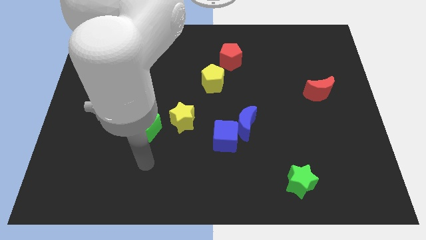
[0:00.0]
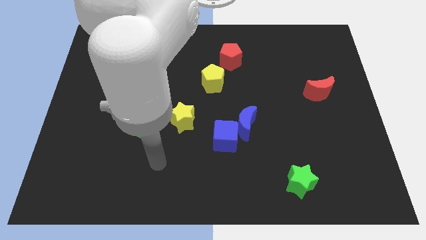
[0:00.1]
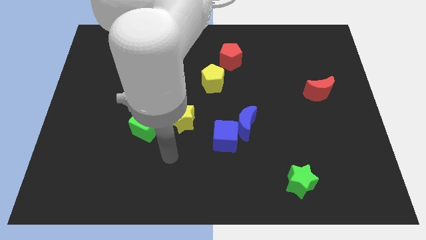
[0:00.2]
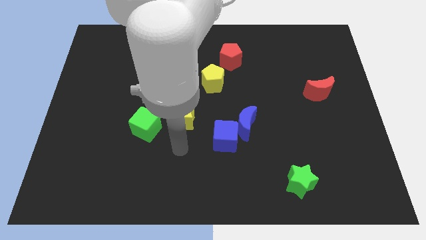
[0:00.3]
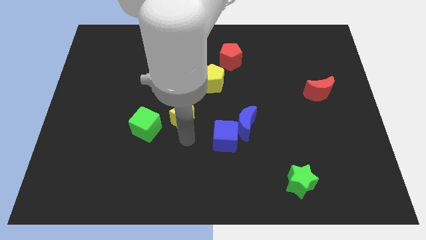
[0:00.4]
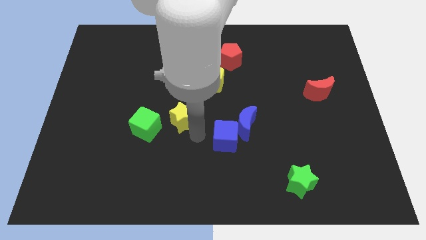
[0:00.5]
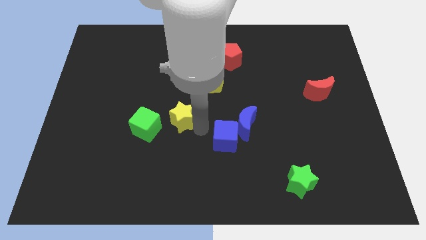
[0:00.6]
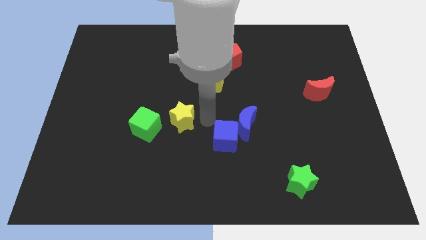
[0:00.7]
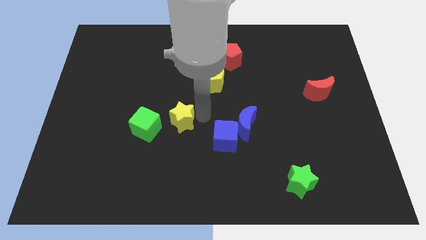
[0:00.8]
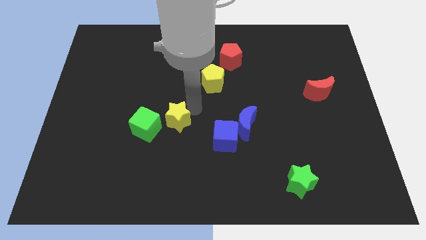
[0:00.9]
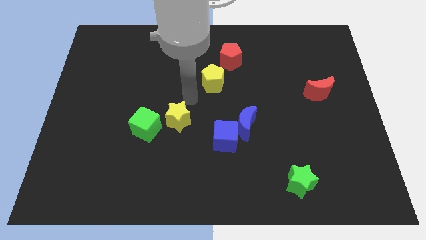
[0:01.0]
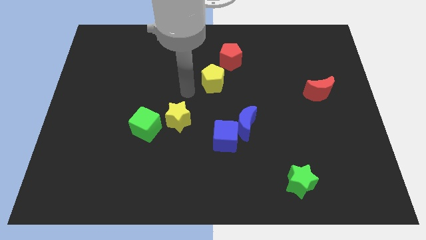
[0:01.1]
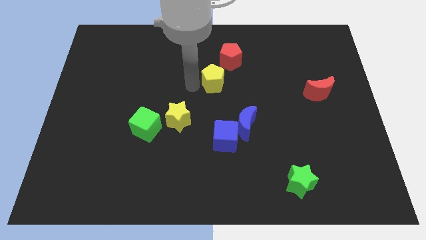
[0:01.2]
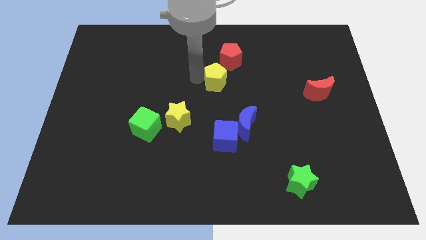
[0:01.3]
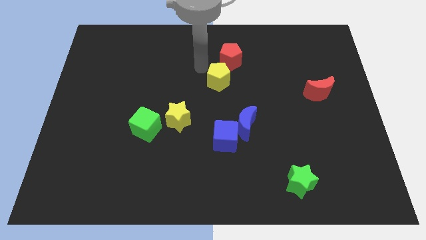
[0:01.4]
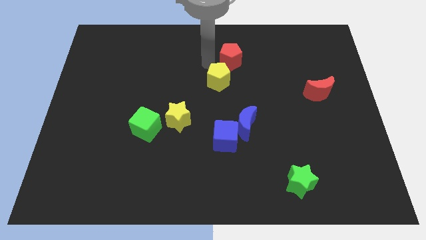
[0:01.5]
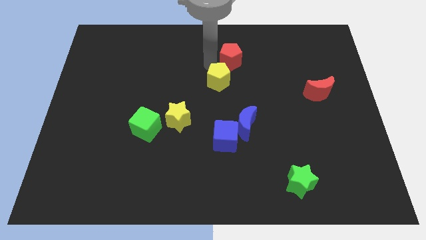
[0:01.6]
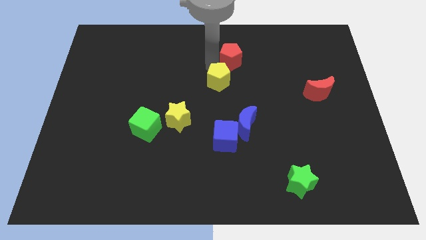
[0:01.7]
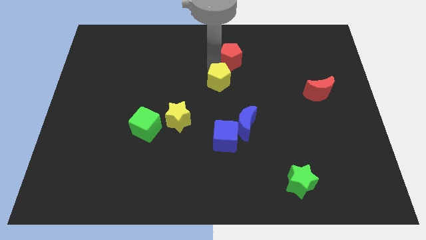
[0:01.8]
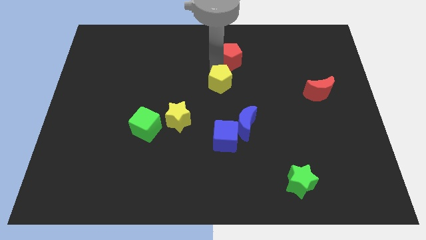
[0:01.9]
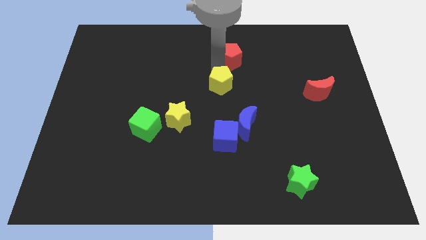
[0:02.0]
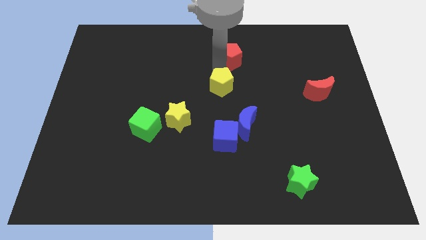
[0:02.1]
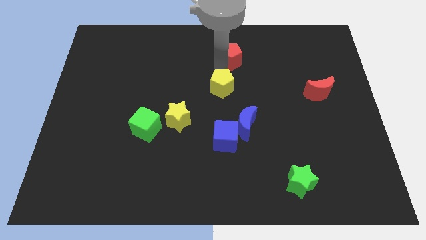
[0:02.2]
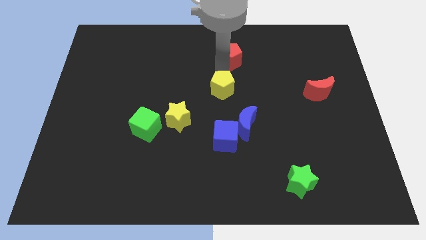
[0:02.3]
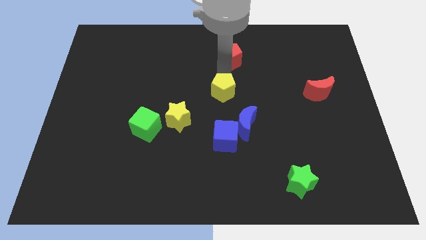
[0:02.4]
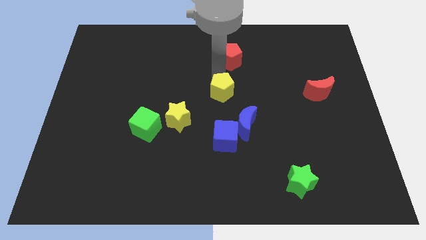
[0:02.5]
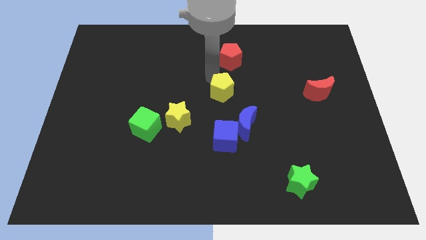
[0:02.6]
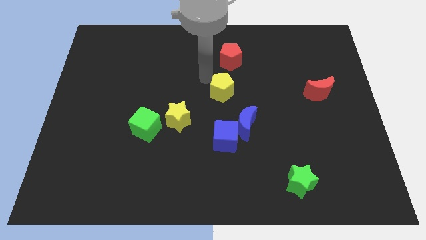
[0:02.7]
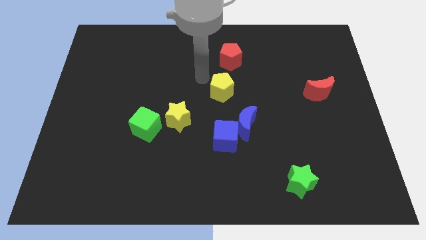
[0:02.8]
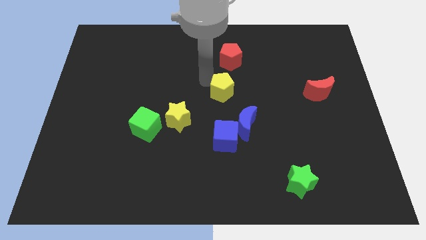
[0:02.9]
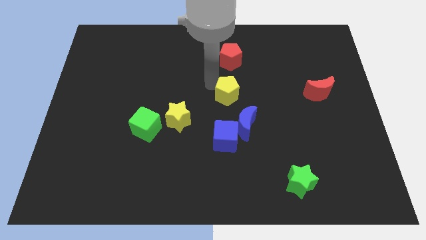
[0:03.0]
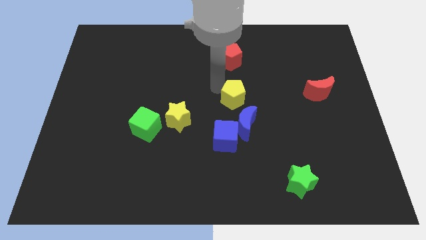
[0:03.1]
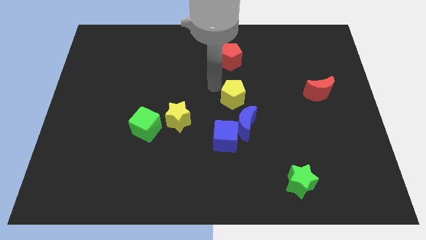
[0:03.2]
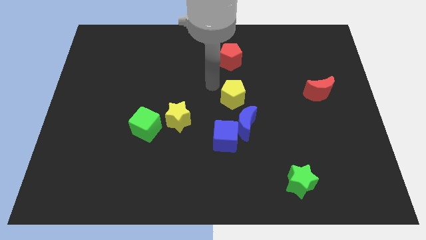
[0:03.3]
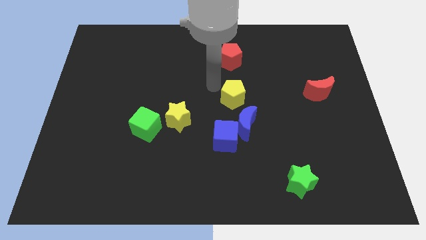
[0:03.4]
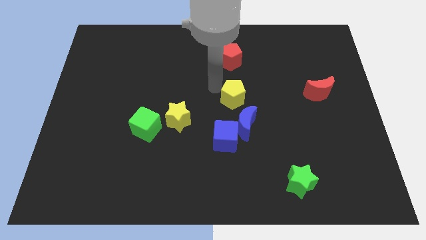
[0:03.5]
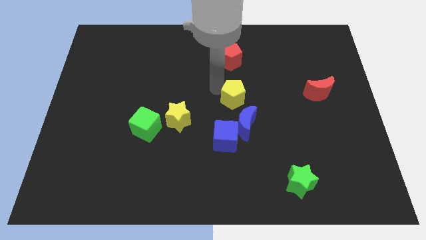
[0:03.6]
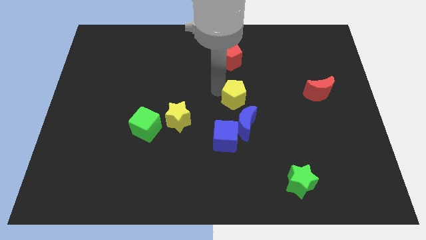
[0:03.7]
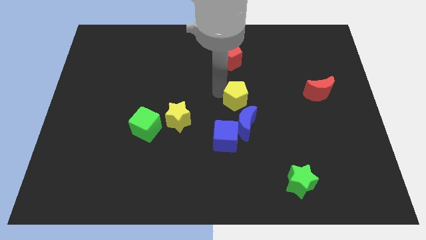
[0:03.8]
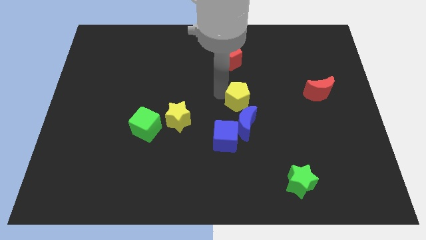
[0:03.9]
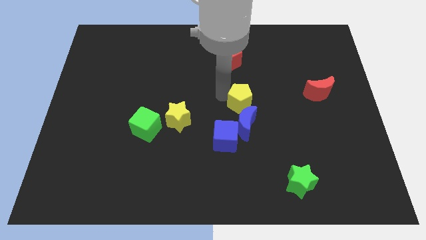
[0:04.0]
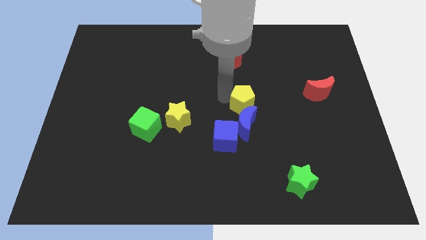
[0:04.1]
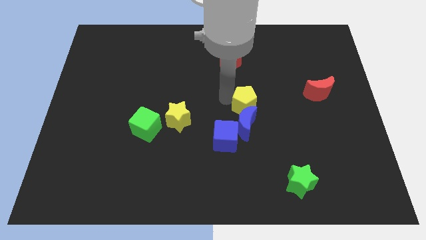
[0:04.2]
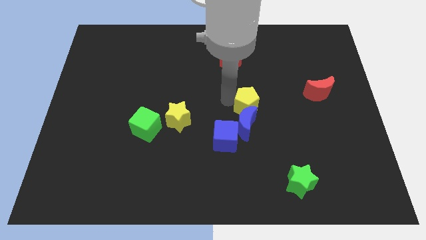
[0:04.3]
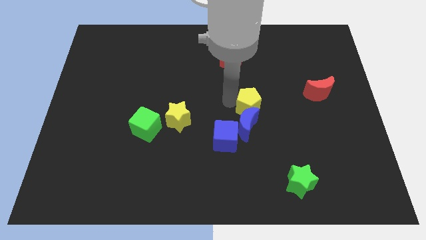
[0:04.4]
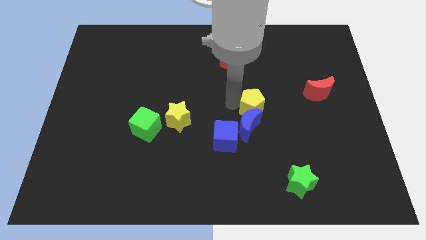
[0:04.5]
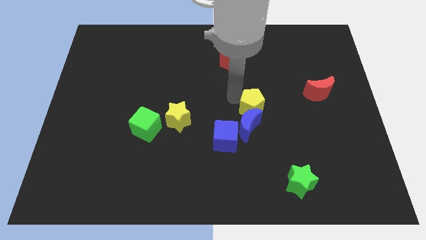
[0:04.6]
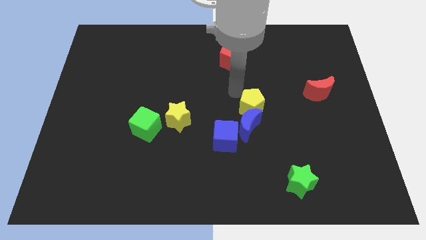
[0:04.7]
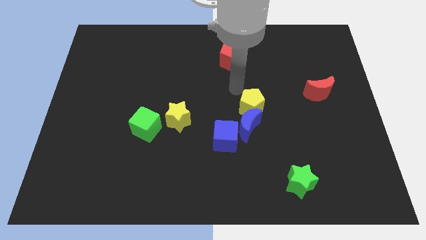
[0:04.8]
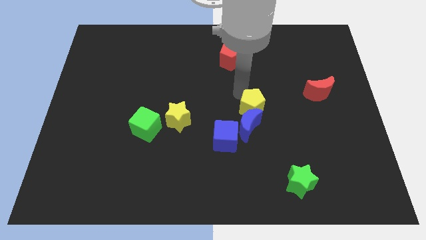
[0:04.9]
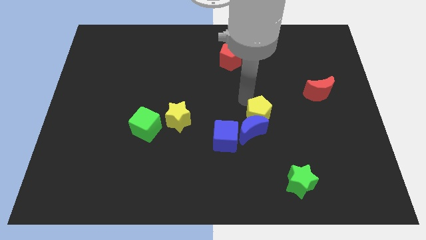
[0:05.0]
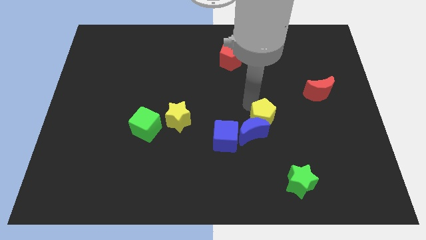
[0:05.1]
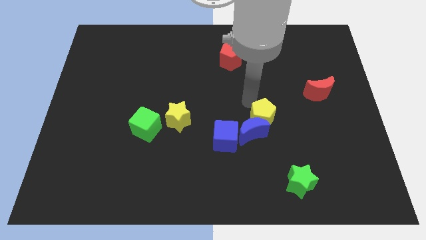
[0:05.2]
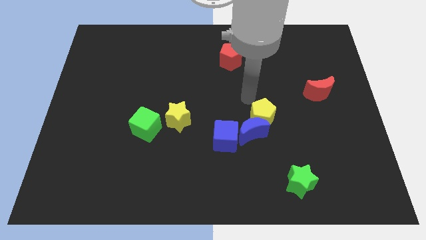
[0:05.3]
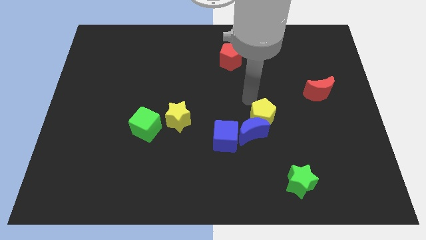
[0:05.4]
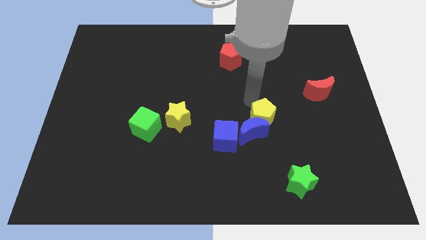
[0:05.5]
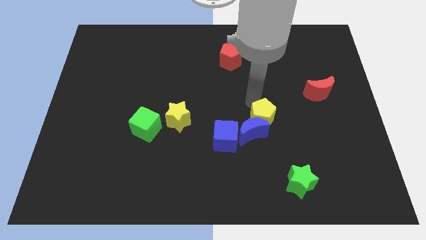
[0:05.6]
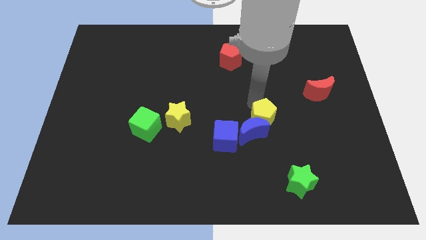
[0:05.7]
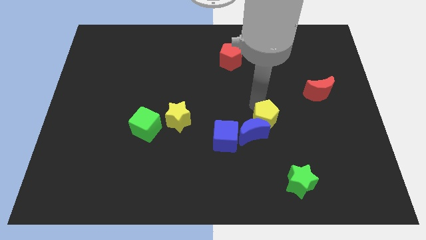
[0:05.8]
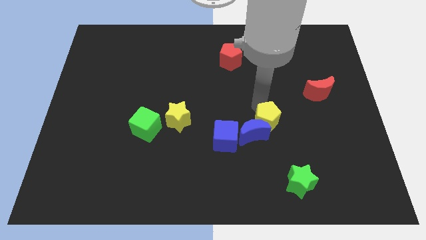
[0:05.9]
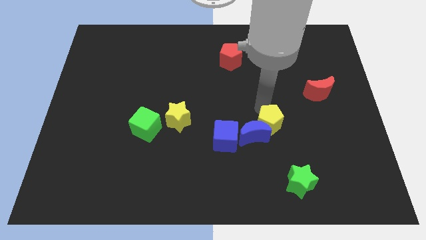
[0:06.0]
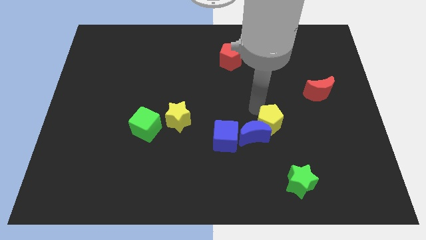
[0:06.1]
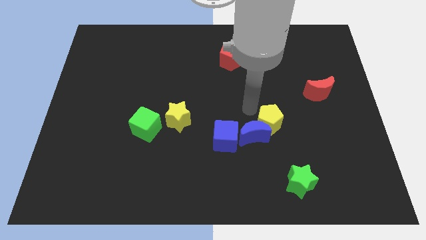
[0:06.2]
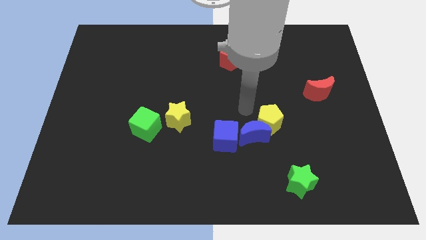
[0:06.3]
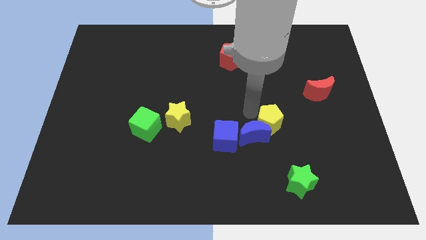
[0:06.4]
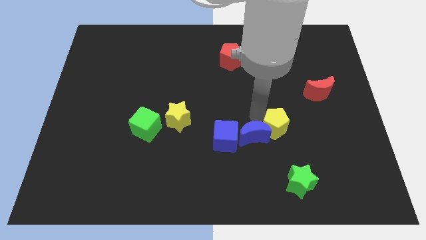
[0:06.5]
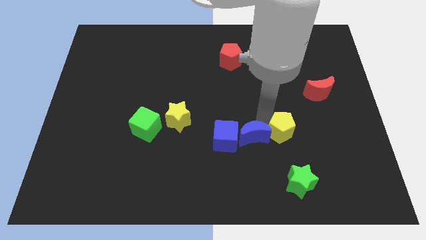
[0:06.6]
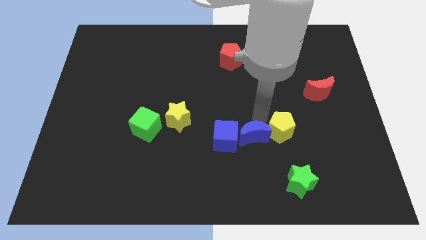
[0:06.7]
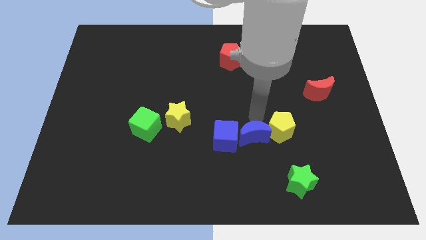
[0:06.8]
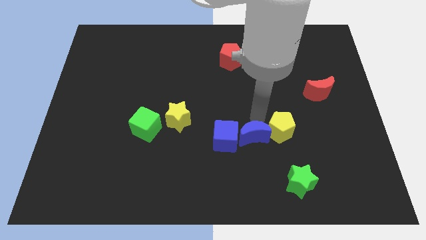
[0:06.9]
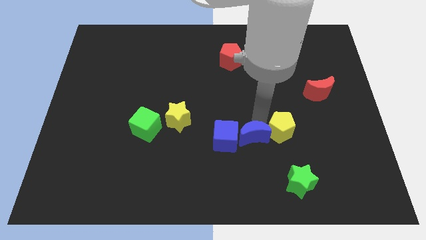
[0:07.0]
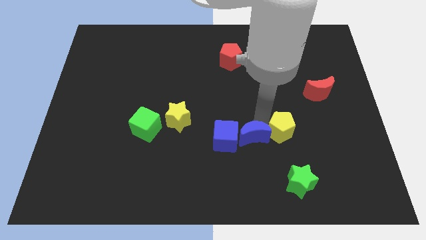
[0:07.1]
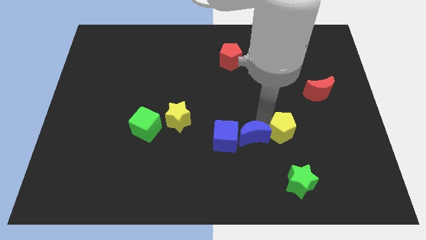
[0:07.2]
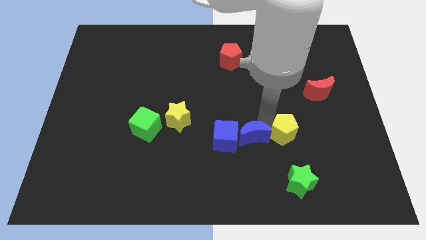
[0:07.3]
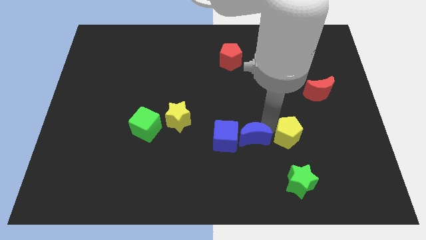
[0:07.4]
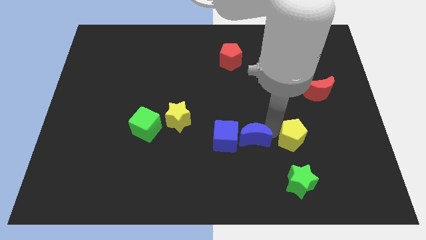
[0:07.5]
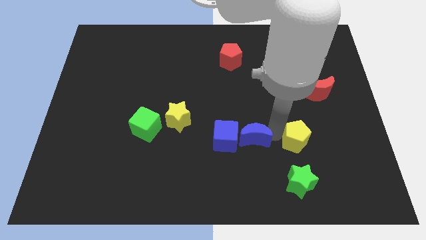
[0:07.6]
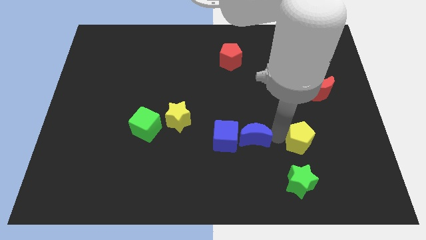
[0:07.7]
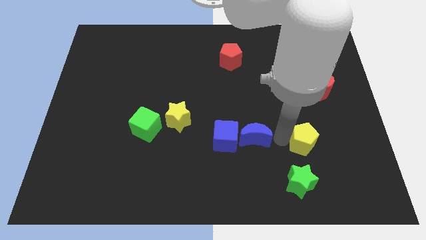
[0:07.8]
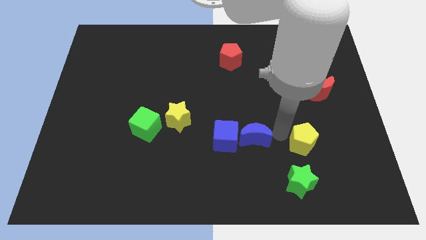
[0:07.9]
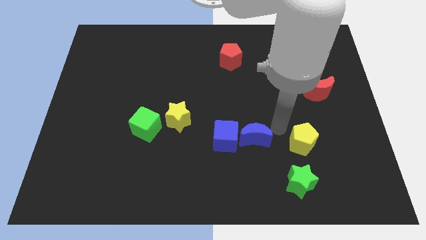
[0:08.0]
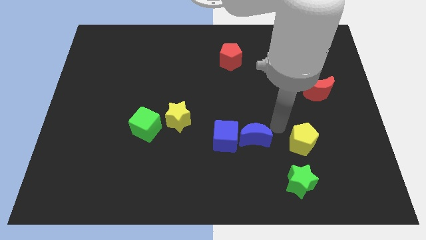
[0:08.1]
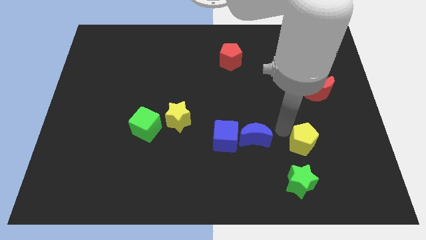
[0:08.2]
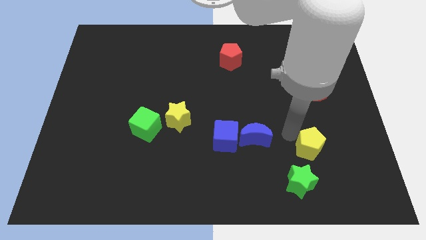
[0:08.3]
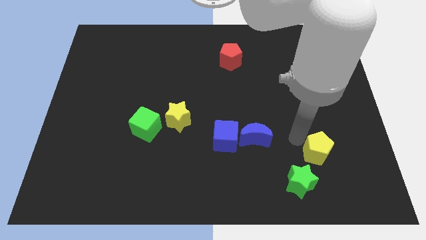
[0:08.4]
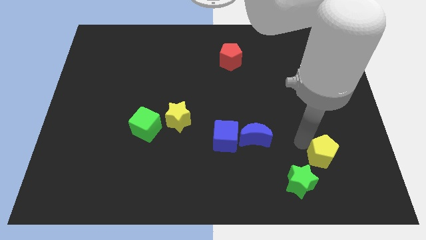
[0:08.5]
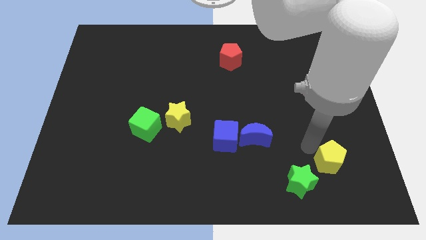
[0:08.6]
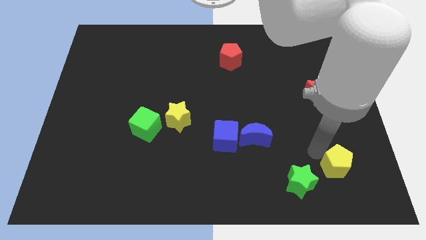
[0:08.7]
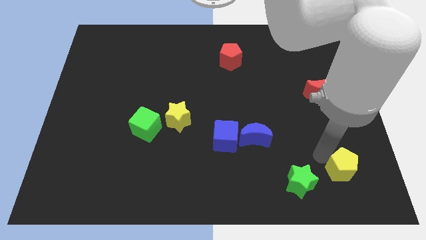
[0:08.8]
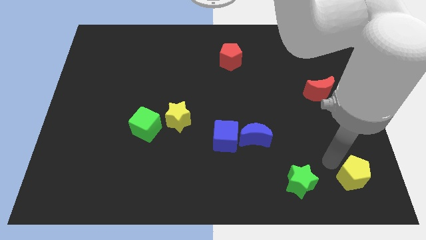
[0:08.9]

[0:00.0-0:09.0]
move the yellow pentagon to the lower right corner
